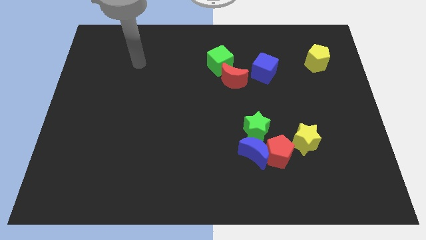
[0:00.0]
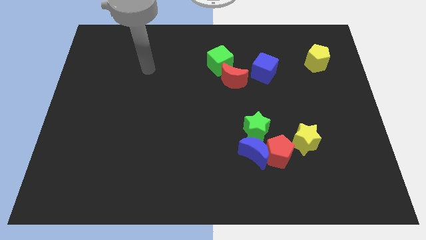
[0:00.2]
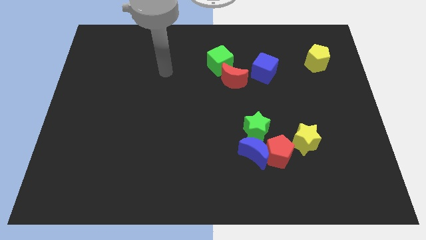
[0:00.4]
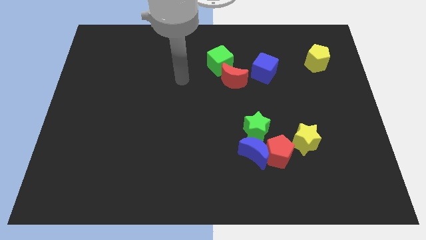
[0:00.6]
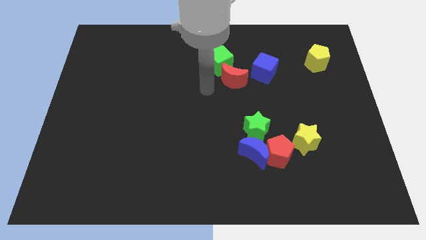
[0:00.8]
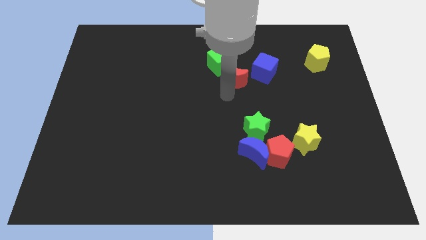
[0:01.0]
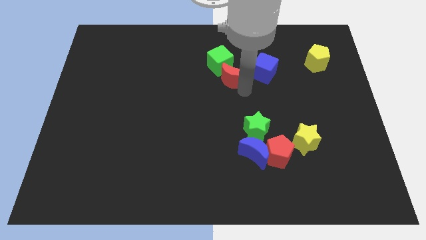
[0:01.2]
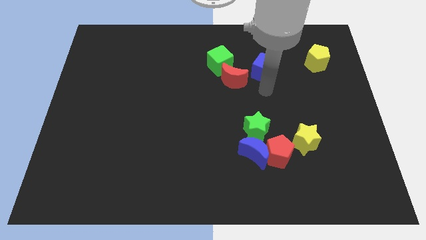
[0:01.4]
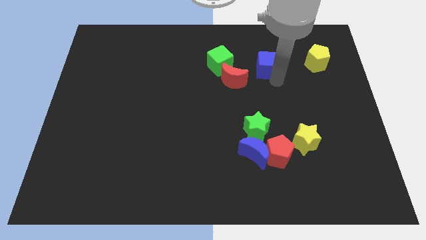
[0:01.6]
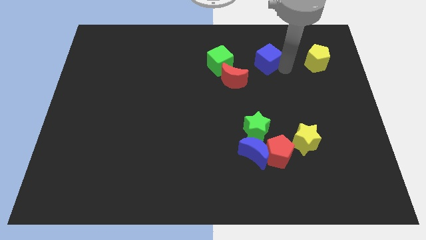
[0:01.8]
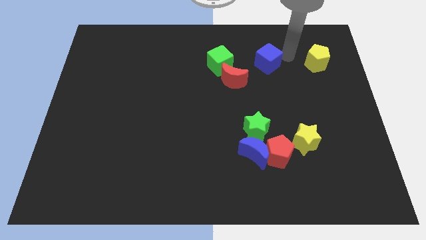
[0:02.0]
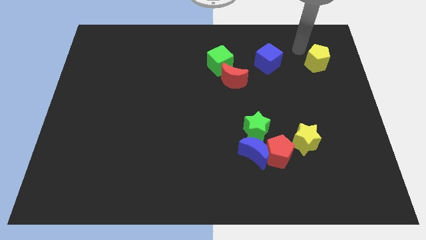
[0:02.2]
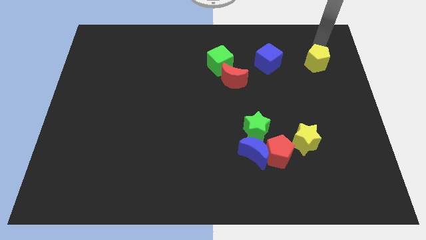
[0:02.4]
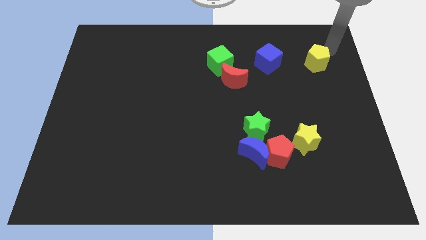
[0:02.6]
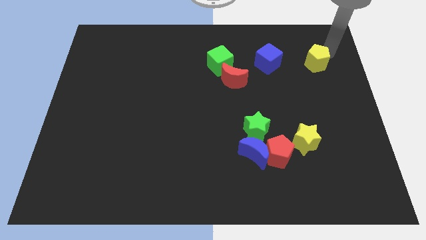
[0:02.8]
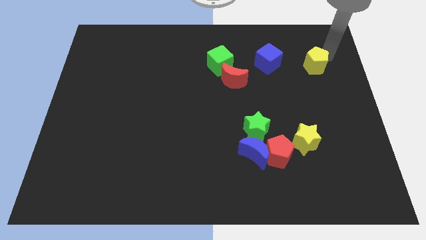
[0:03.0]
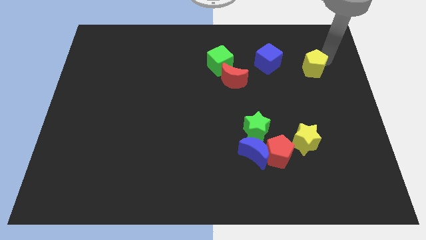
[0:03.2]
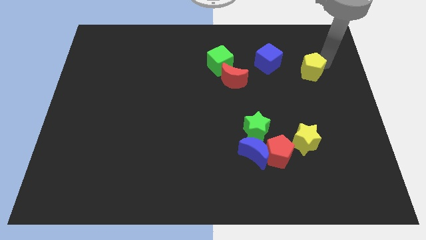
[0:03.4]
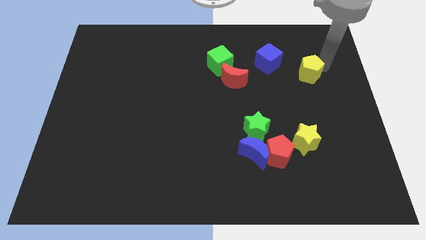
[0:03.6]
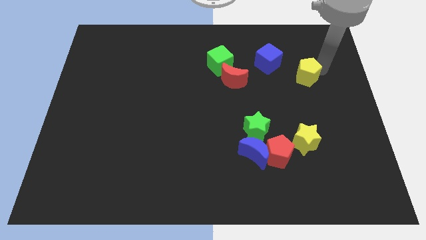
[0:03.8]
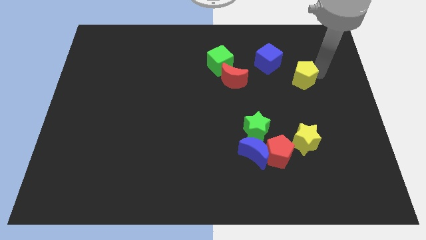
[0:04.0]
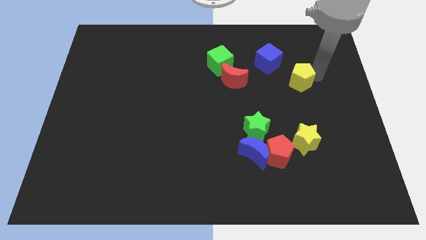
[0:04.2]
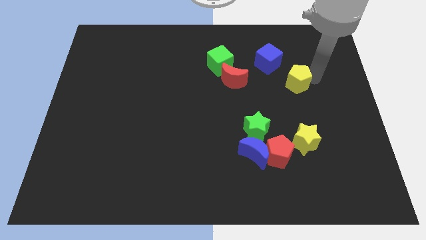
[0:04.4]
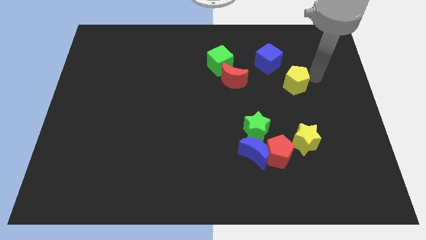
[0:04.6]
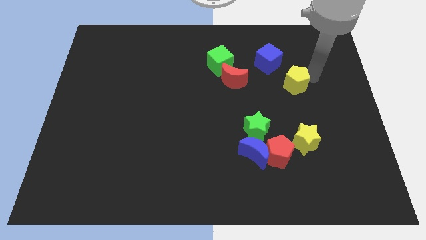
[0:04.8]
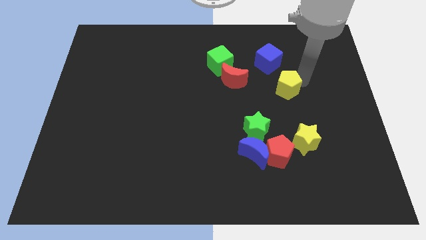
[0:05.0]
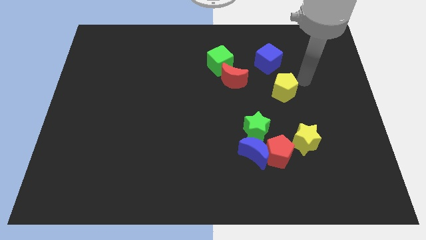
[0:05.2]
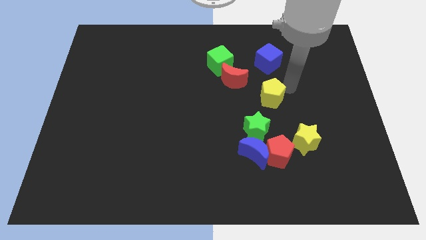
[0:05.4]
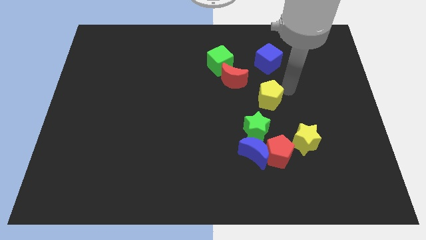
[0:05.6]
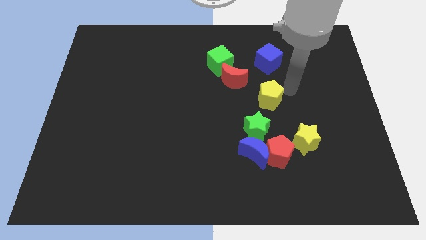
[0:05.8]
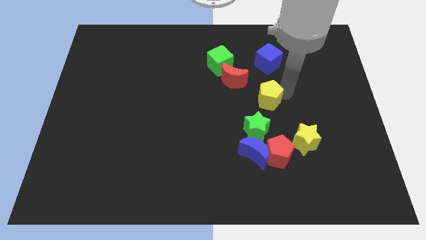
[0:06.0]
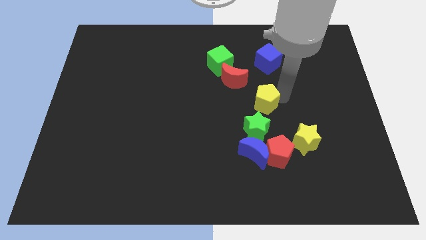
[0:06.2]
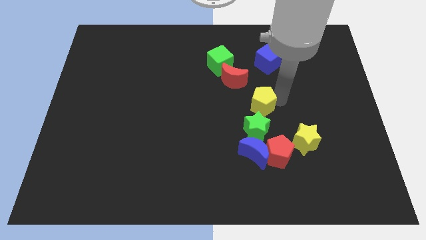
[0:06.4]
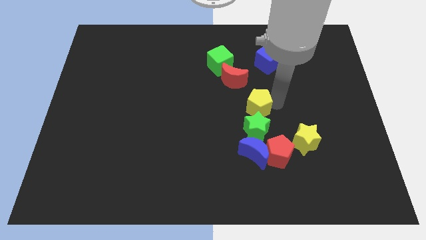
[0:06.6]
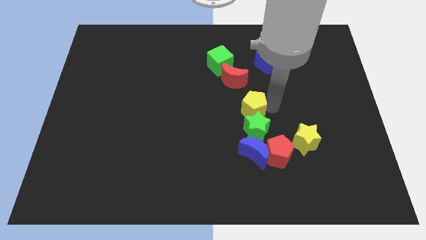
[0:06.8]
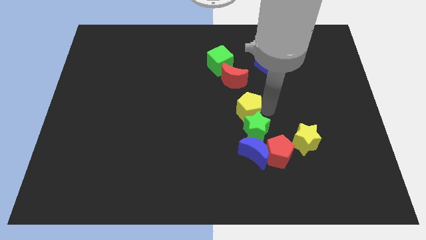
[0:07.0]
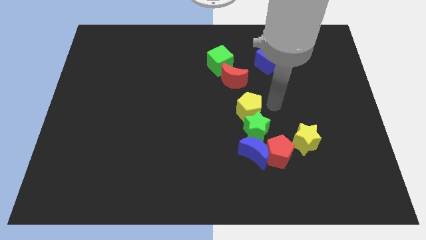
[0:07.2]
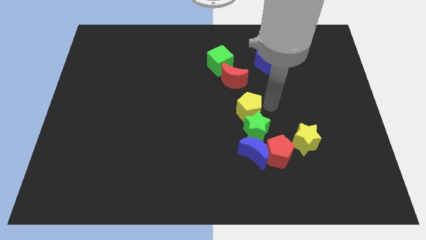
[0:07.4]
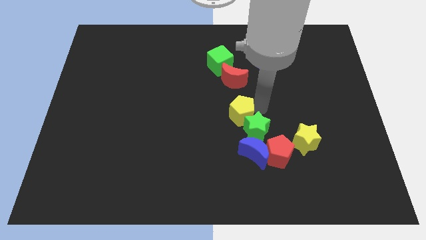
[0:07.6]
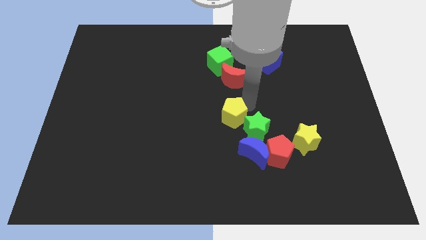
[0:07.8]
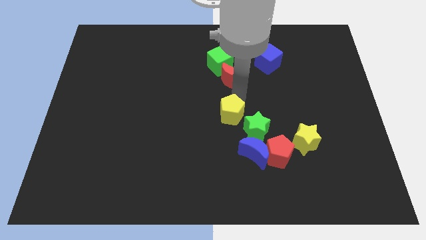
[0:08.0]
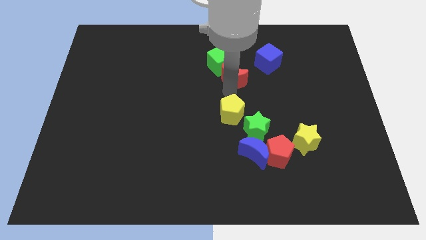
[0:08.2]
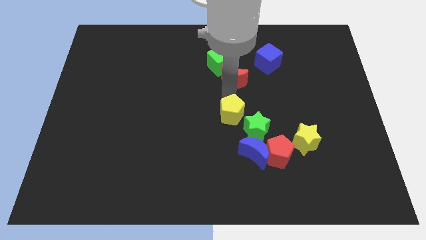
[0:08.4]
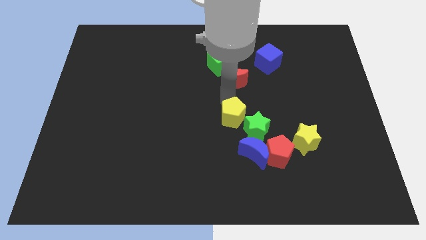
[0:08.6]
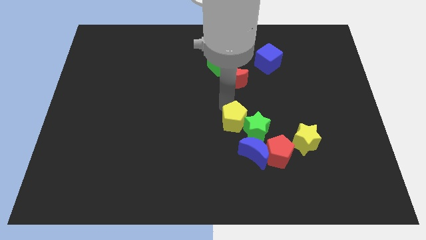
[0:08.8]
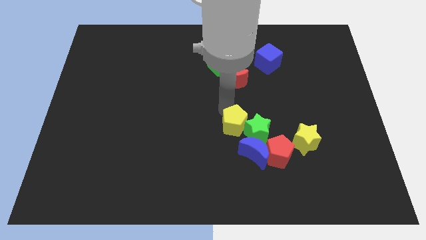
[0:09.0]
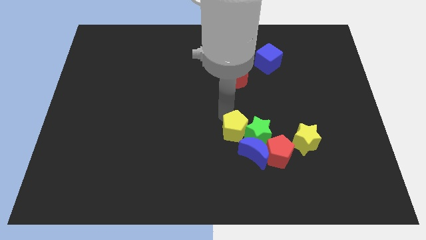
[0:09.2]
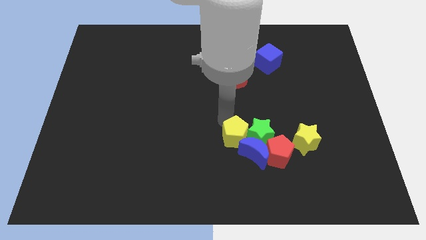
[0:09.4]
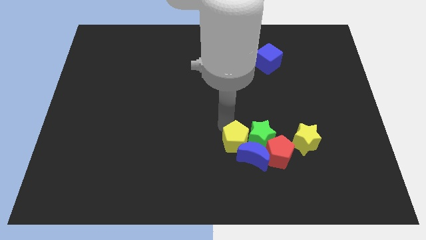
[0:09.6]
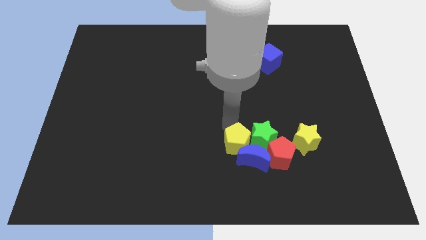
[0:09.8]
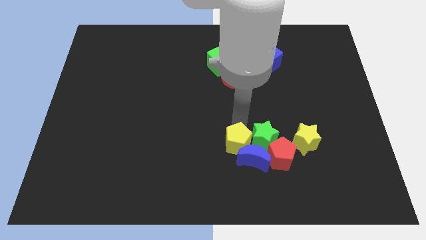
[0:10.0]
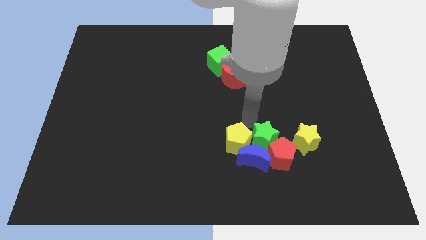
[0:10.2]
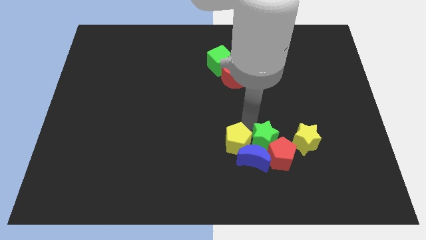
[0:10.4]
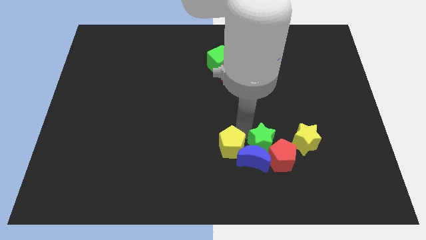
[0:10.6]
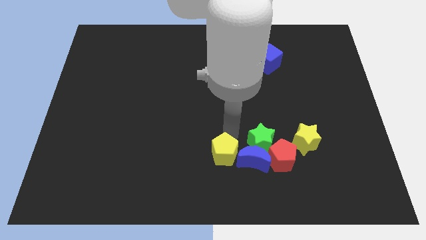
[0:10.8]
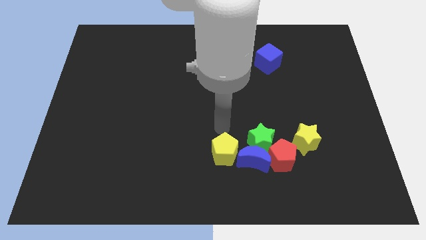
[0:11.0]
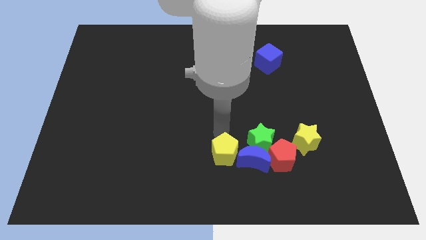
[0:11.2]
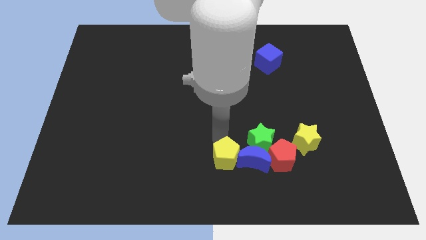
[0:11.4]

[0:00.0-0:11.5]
put the yellow pentagon diagonally down and to the left of the blue moon

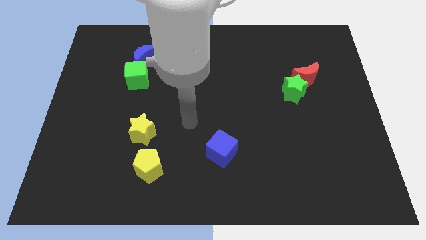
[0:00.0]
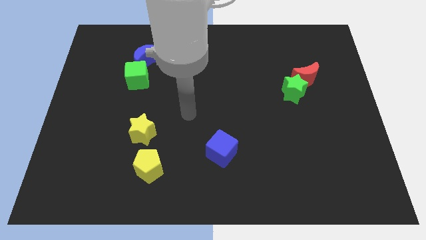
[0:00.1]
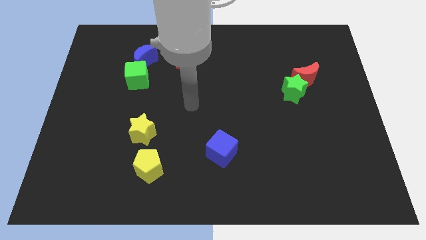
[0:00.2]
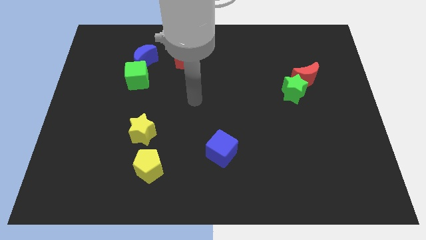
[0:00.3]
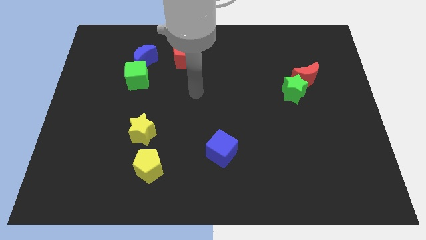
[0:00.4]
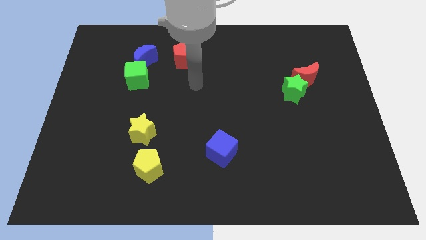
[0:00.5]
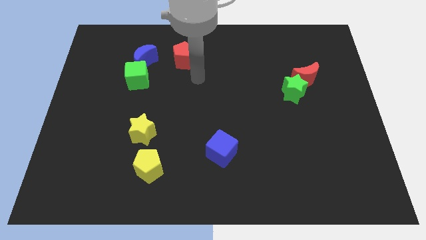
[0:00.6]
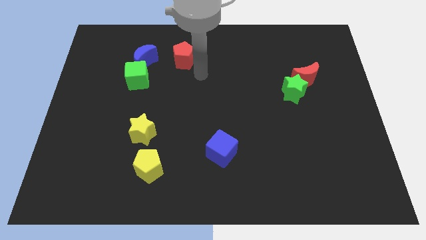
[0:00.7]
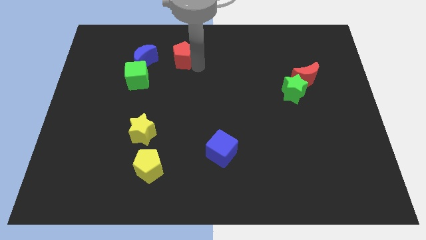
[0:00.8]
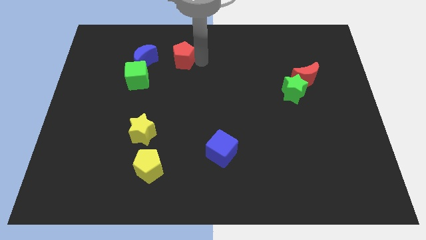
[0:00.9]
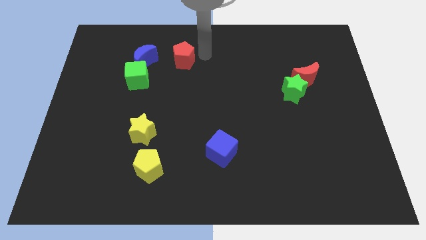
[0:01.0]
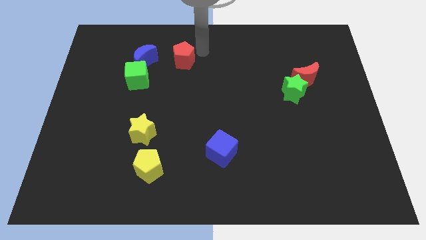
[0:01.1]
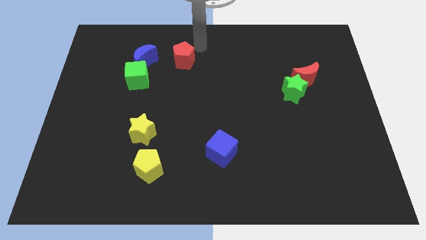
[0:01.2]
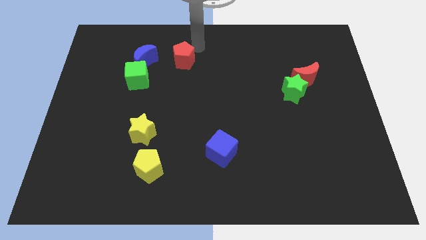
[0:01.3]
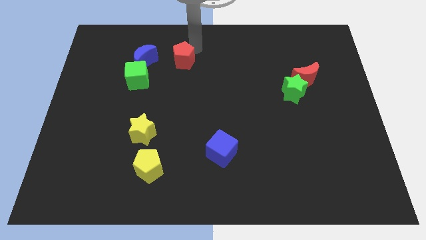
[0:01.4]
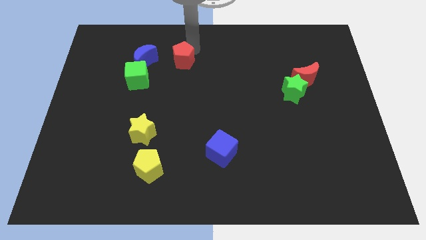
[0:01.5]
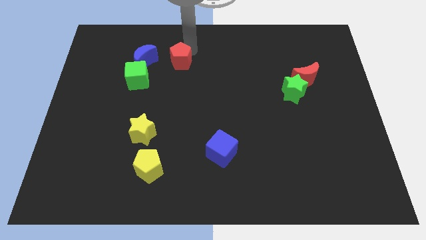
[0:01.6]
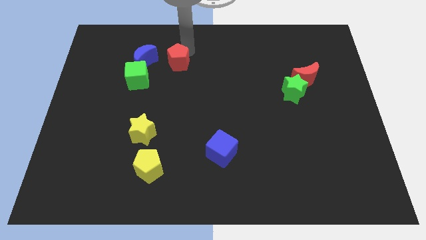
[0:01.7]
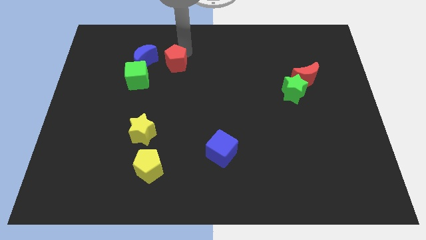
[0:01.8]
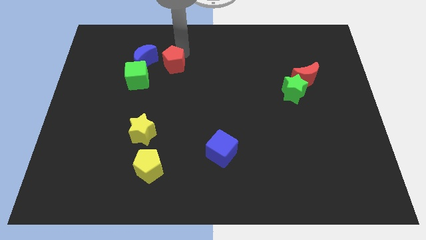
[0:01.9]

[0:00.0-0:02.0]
move the red pentagon to the bottom right side of the blue moon
